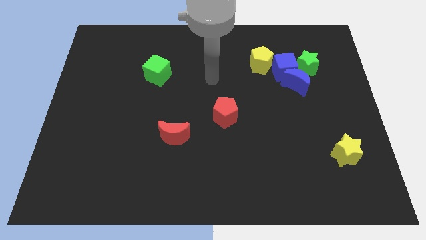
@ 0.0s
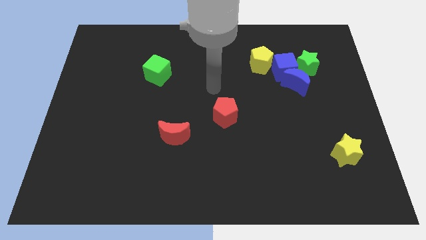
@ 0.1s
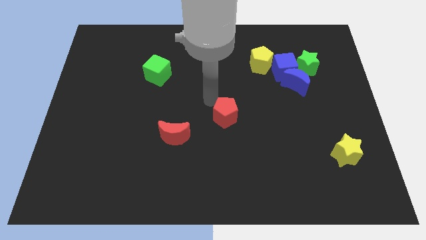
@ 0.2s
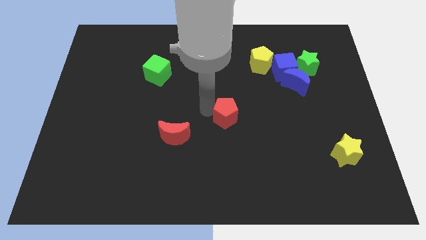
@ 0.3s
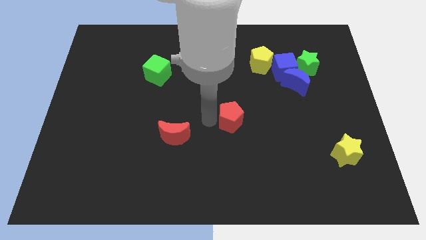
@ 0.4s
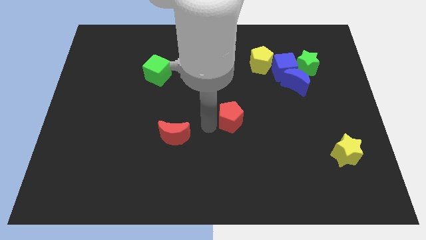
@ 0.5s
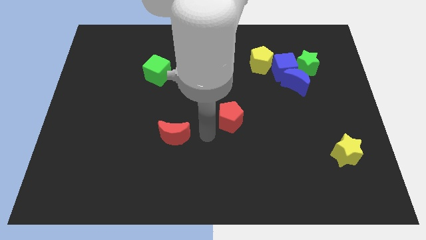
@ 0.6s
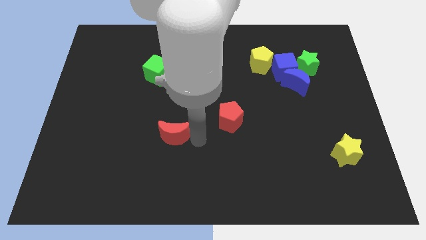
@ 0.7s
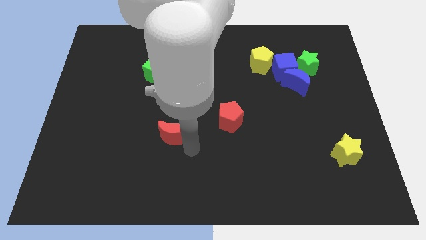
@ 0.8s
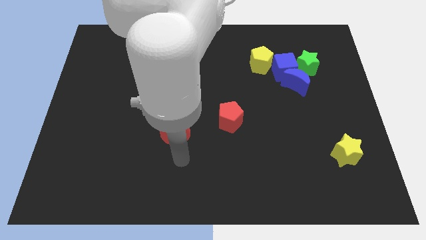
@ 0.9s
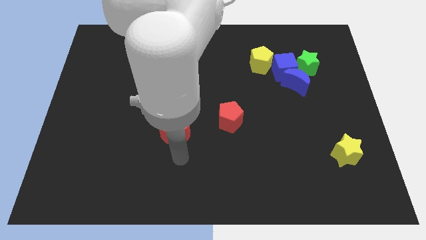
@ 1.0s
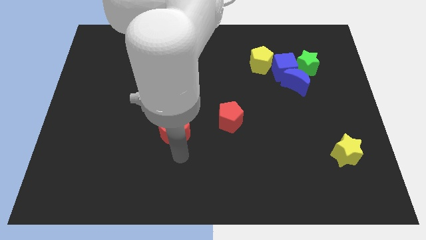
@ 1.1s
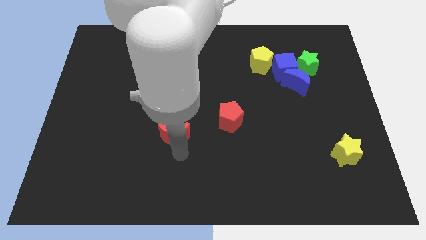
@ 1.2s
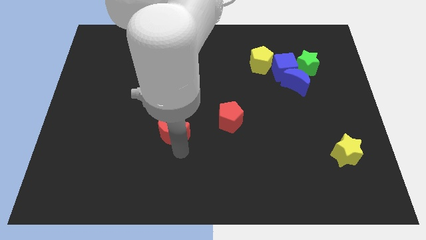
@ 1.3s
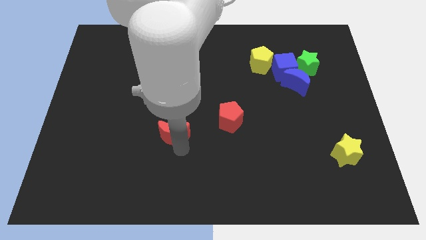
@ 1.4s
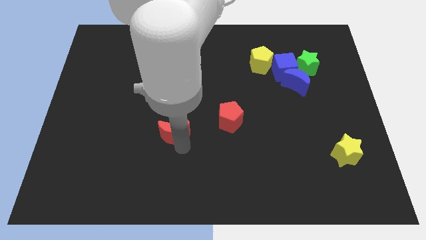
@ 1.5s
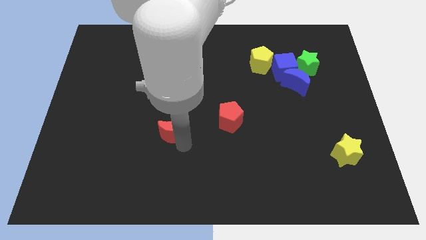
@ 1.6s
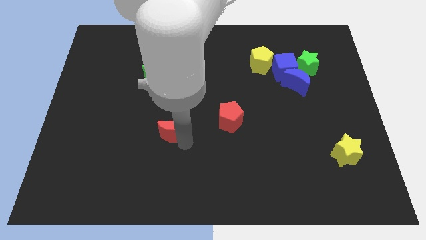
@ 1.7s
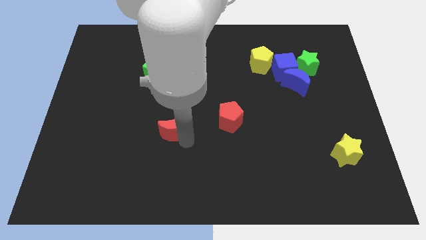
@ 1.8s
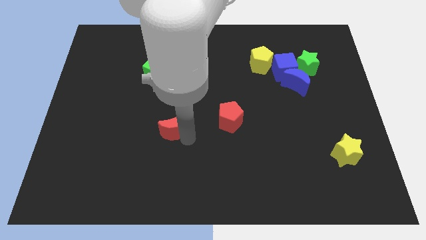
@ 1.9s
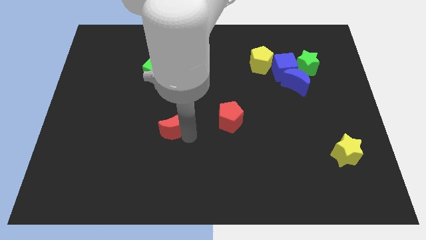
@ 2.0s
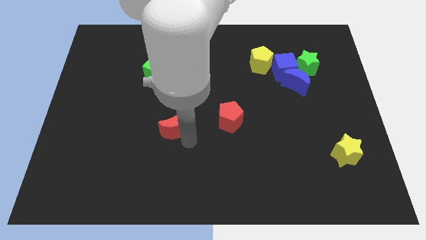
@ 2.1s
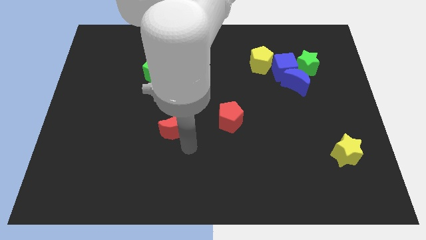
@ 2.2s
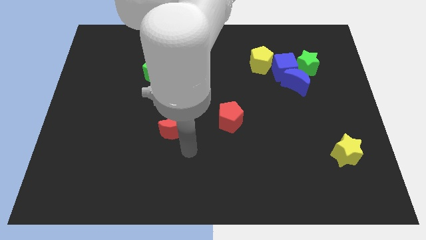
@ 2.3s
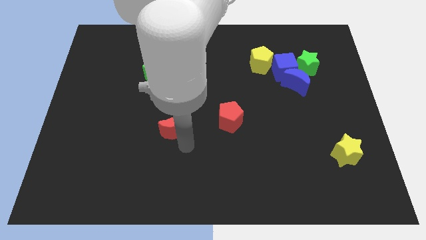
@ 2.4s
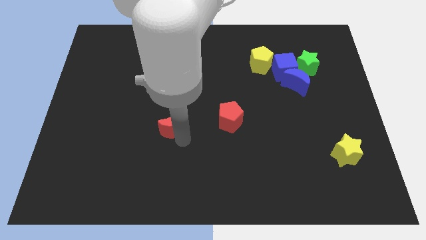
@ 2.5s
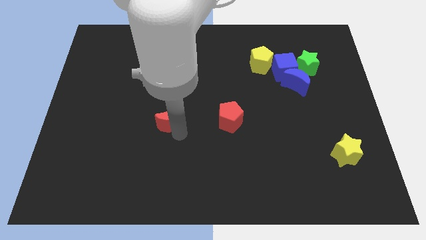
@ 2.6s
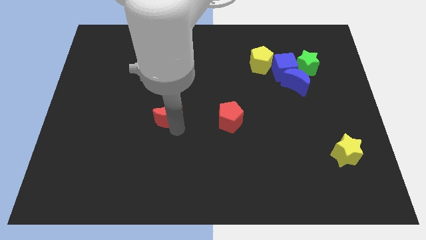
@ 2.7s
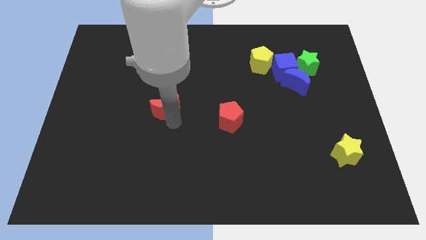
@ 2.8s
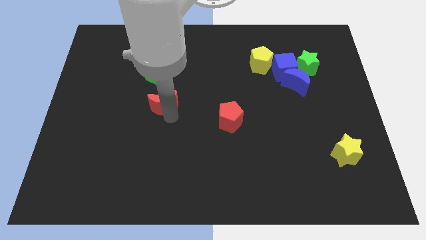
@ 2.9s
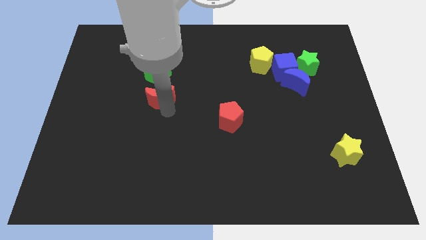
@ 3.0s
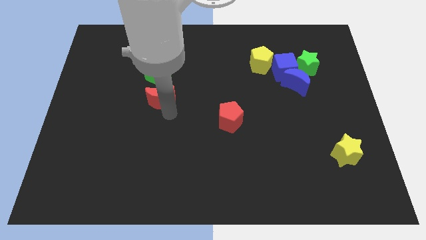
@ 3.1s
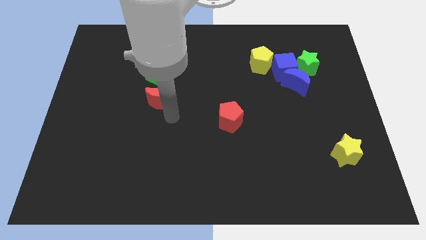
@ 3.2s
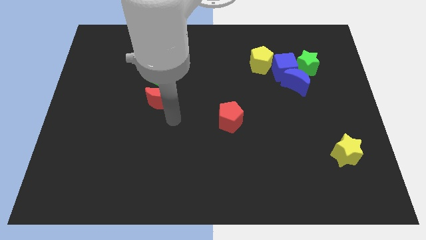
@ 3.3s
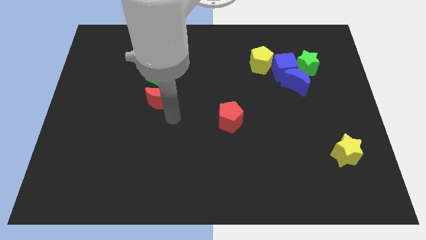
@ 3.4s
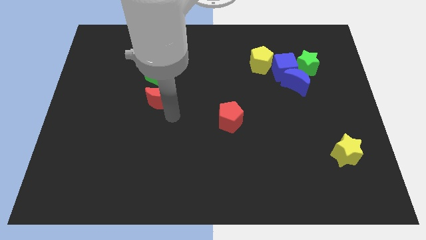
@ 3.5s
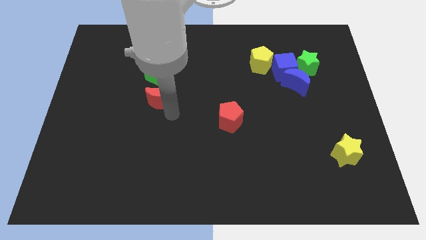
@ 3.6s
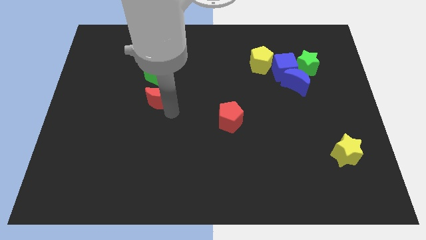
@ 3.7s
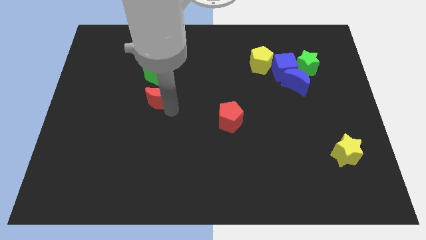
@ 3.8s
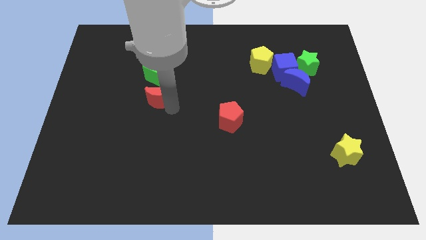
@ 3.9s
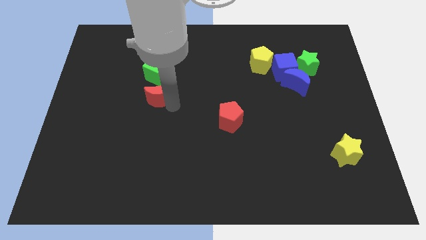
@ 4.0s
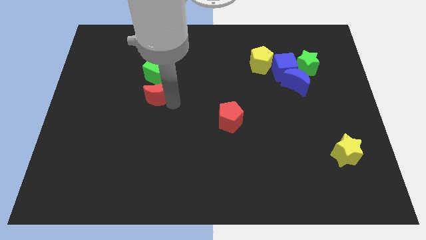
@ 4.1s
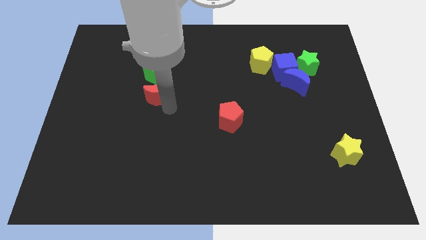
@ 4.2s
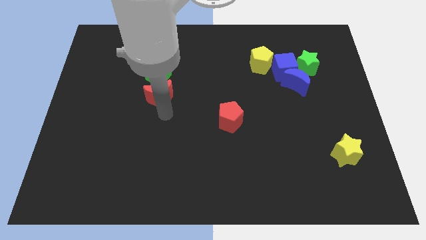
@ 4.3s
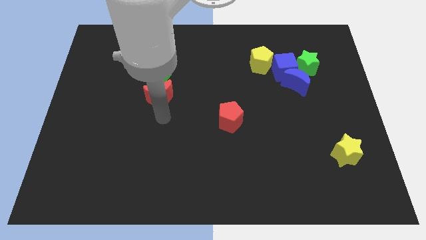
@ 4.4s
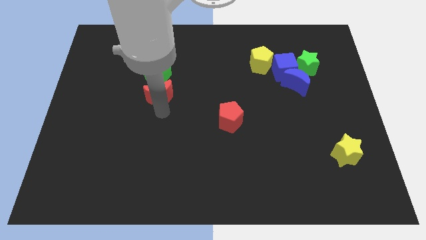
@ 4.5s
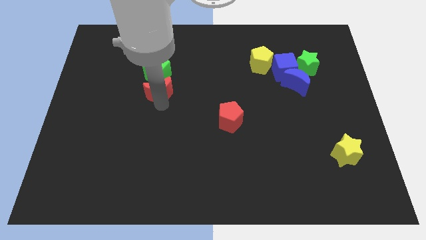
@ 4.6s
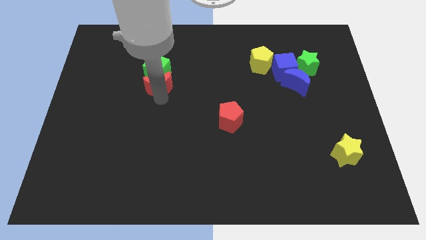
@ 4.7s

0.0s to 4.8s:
move the red moon towards the green cube

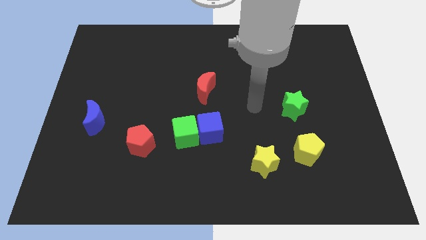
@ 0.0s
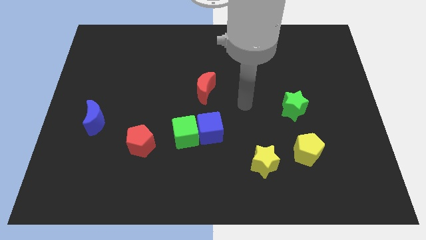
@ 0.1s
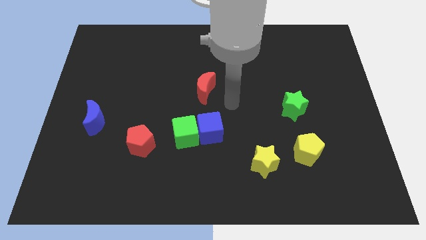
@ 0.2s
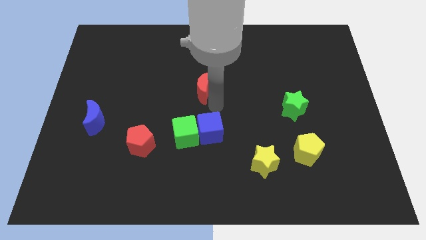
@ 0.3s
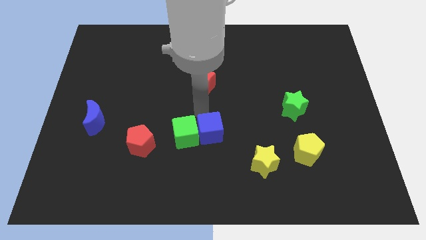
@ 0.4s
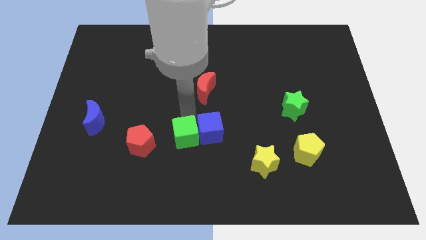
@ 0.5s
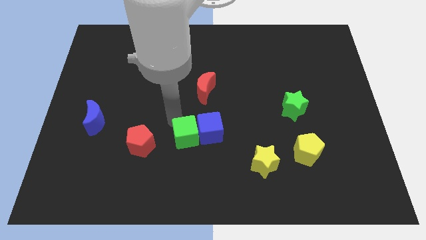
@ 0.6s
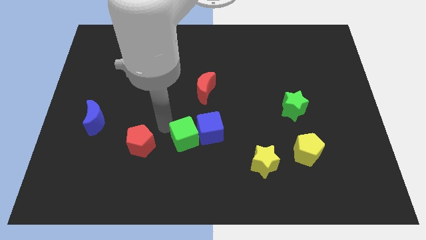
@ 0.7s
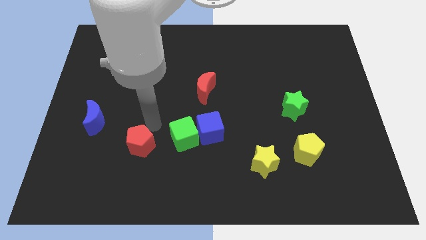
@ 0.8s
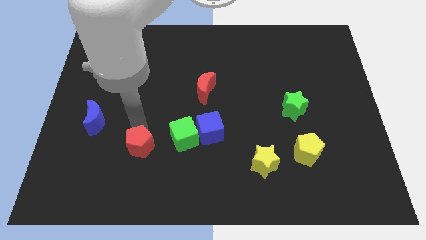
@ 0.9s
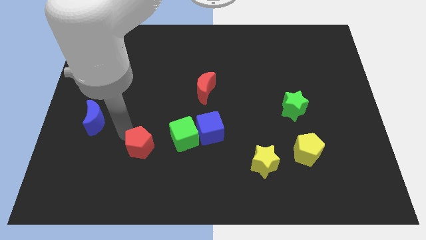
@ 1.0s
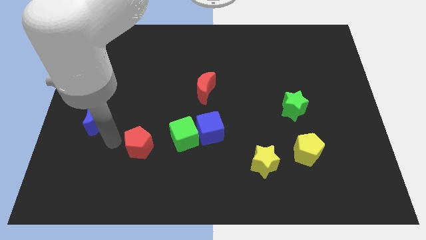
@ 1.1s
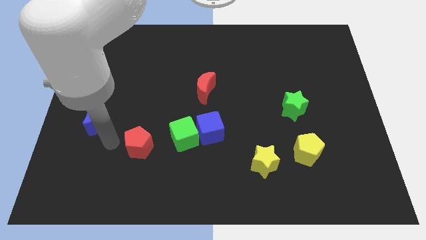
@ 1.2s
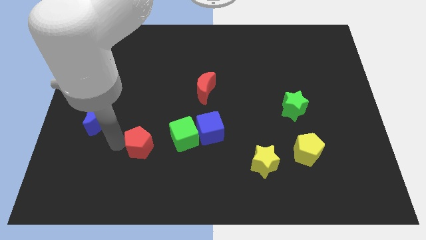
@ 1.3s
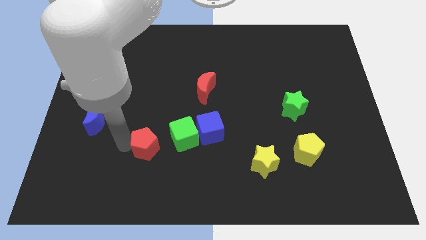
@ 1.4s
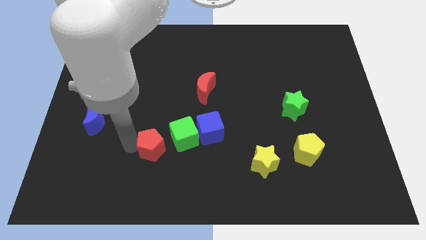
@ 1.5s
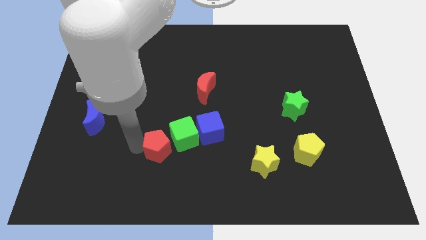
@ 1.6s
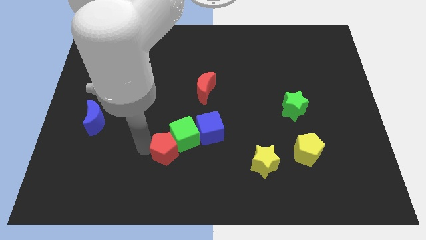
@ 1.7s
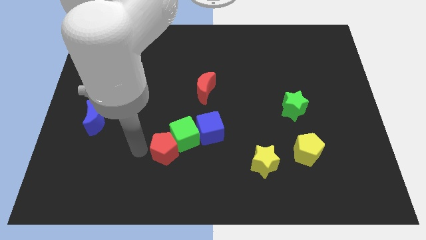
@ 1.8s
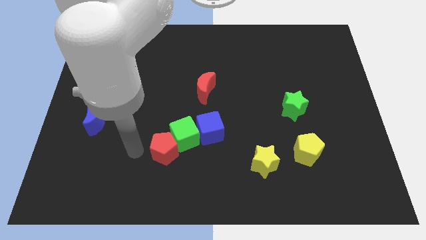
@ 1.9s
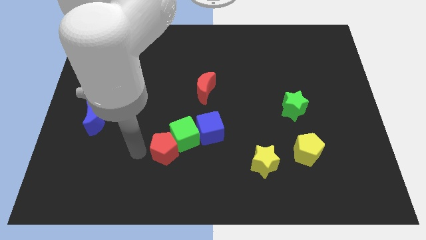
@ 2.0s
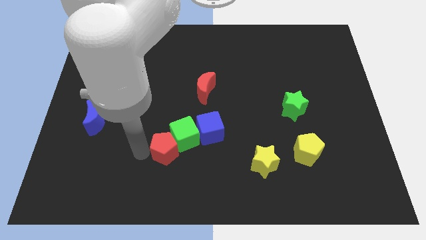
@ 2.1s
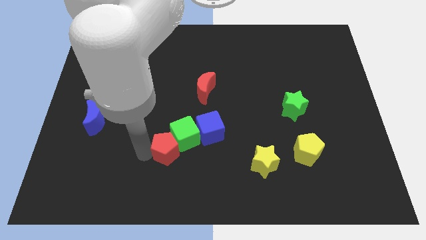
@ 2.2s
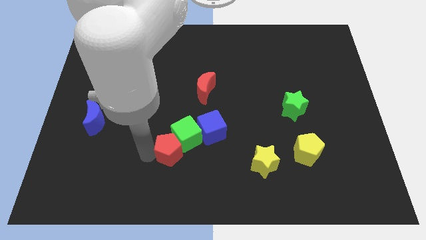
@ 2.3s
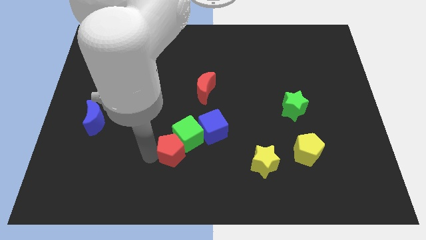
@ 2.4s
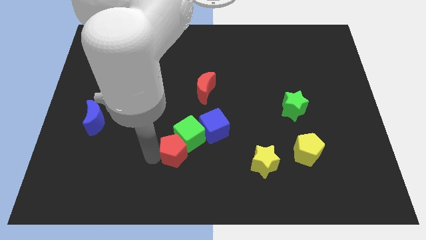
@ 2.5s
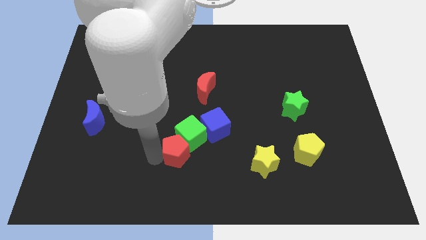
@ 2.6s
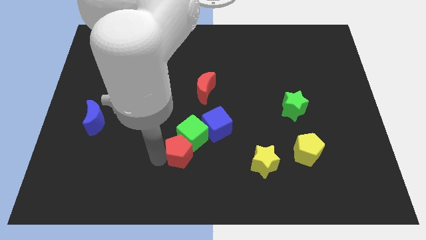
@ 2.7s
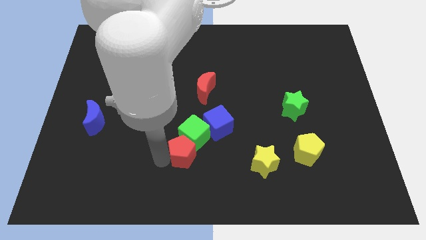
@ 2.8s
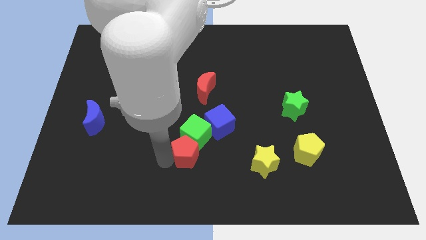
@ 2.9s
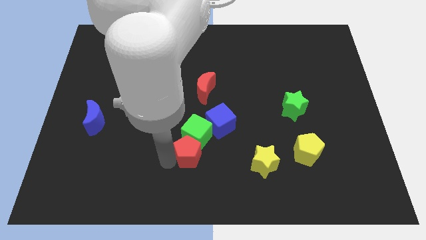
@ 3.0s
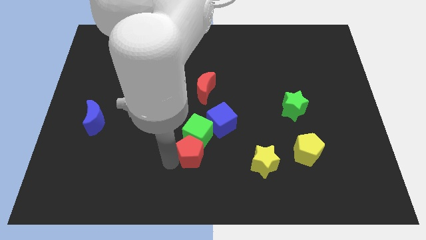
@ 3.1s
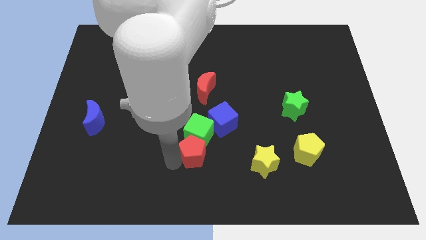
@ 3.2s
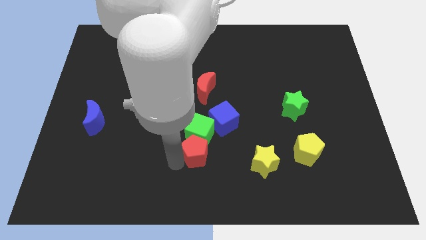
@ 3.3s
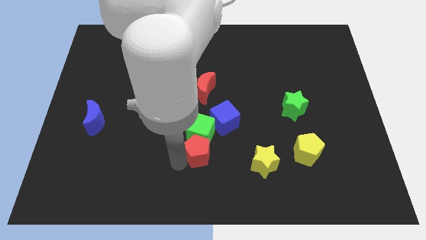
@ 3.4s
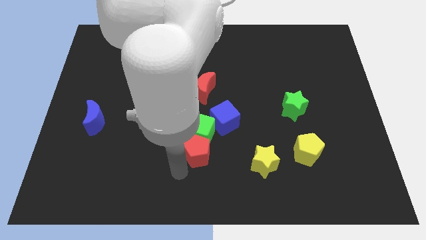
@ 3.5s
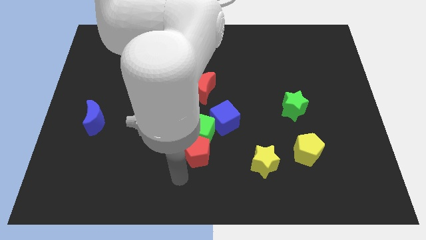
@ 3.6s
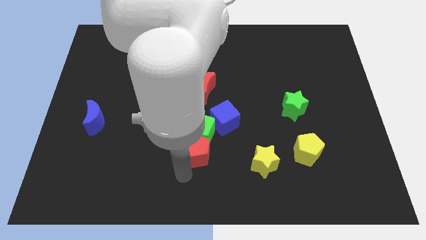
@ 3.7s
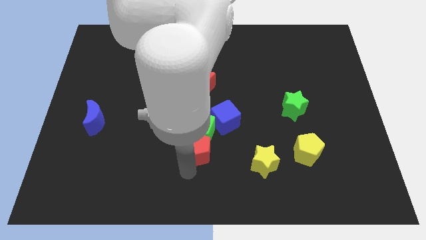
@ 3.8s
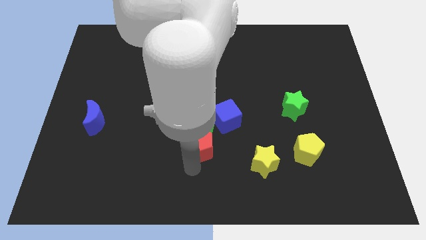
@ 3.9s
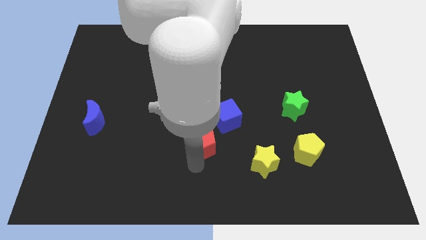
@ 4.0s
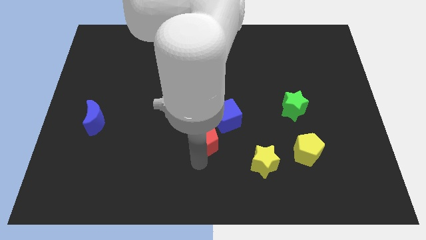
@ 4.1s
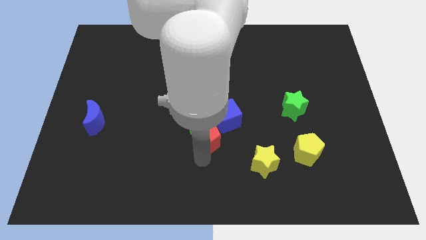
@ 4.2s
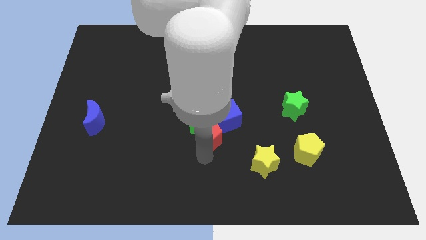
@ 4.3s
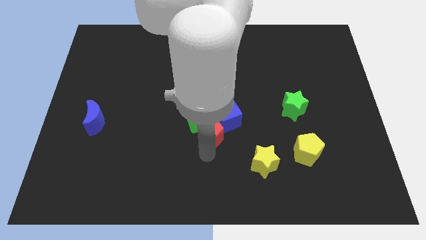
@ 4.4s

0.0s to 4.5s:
slide the red pentagon to the blue cube
